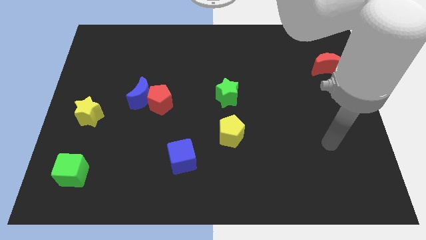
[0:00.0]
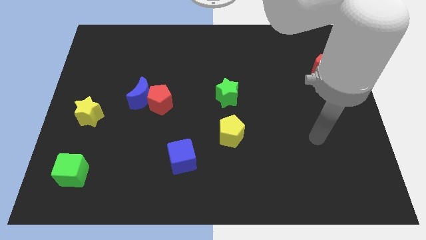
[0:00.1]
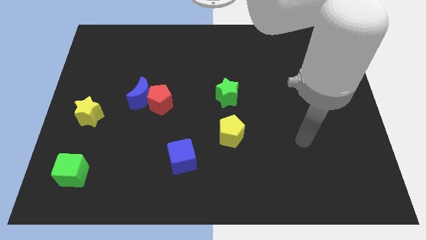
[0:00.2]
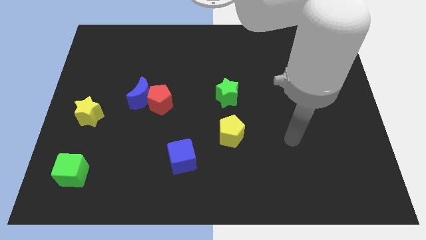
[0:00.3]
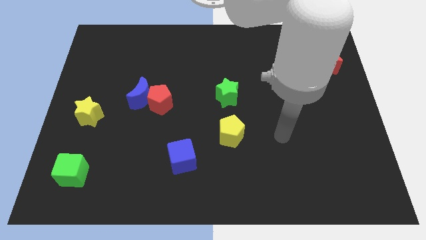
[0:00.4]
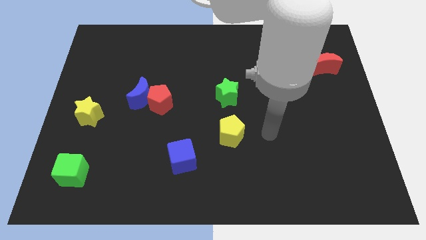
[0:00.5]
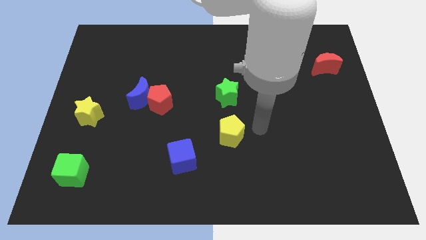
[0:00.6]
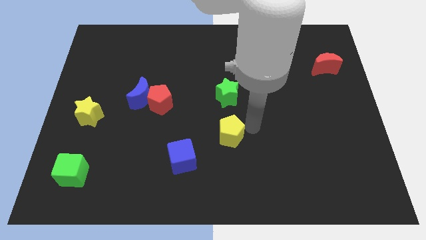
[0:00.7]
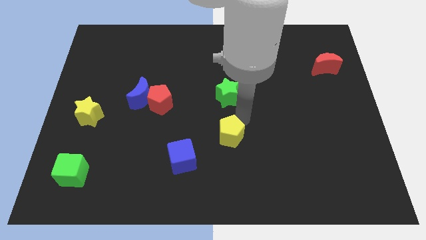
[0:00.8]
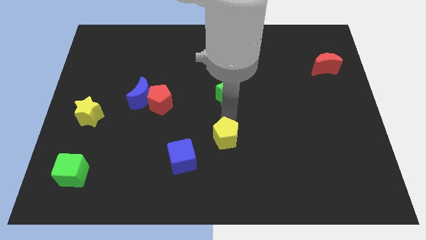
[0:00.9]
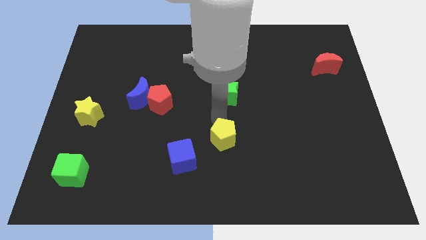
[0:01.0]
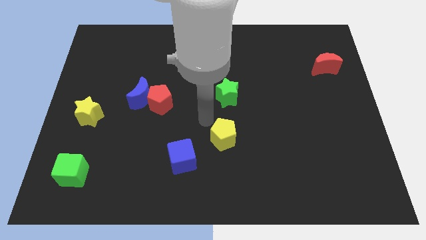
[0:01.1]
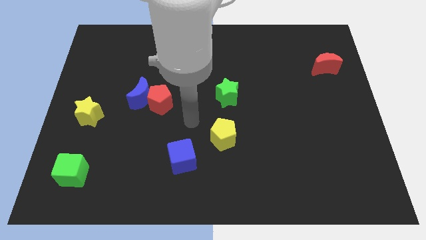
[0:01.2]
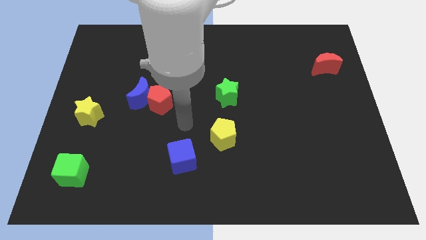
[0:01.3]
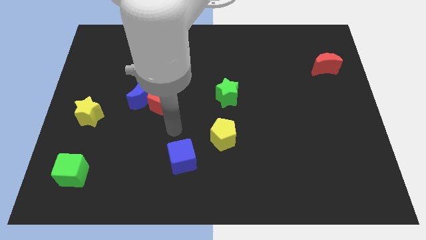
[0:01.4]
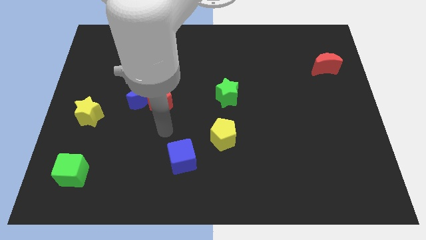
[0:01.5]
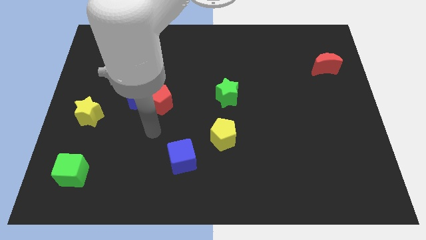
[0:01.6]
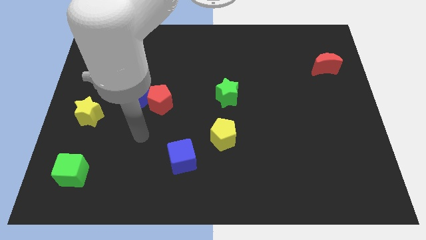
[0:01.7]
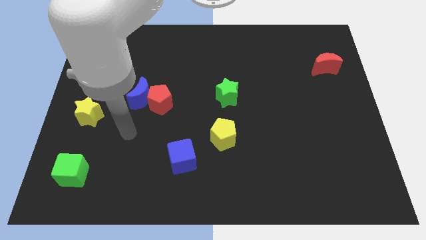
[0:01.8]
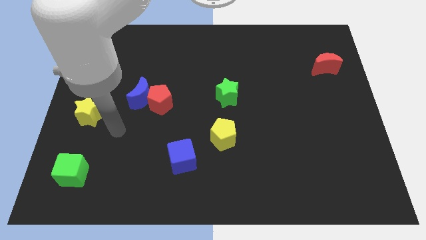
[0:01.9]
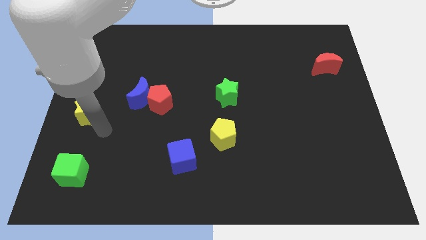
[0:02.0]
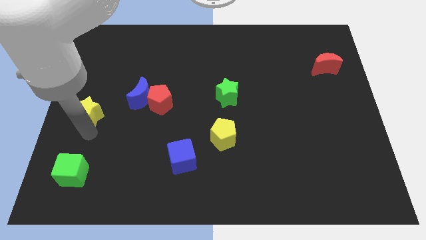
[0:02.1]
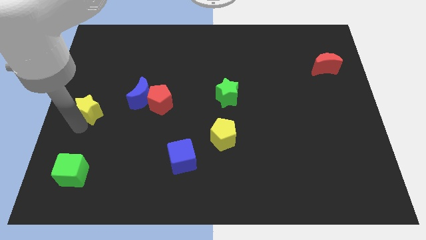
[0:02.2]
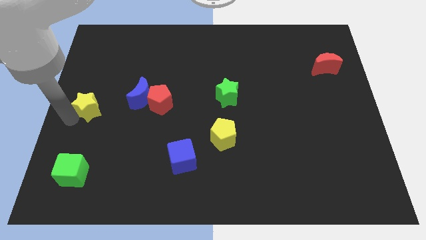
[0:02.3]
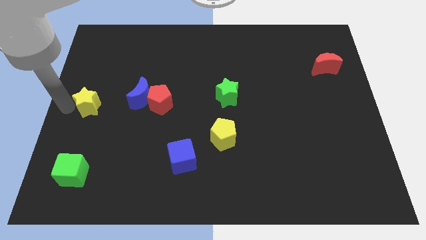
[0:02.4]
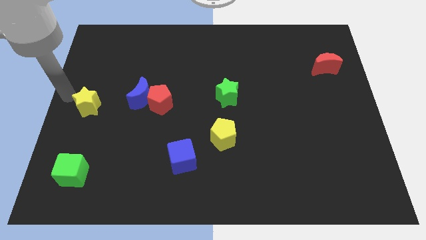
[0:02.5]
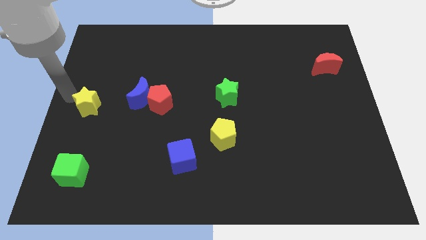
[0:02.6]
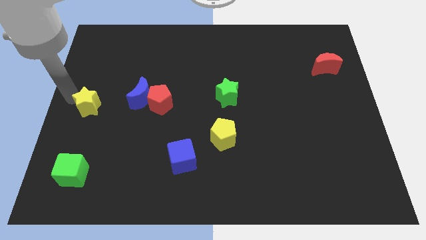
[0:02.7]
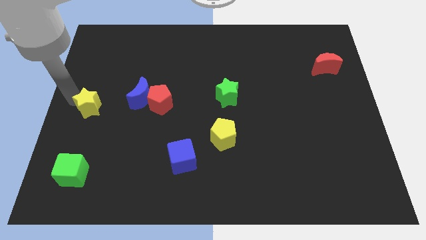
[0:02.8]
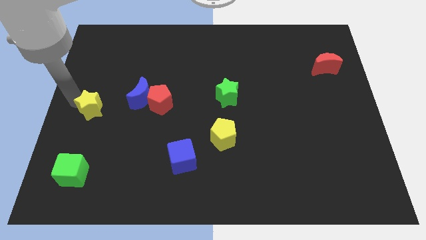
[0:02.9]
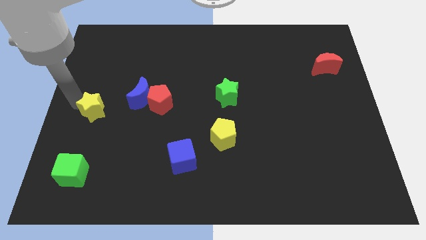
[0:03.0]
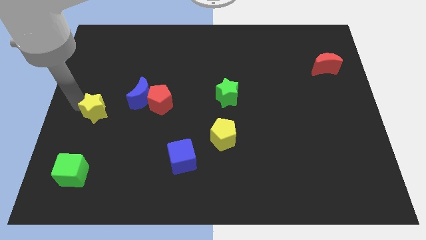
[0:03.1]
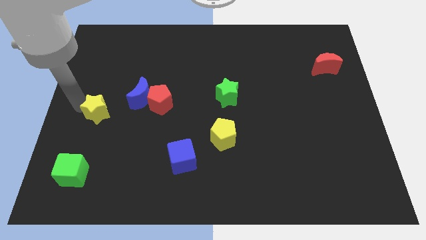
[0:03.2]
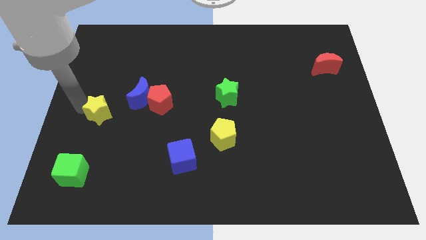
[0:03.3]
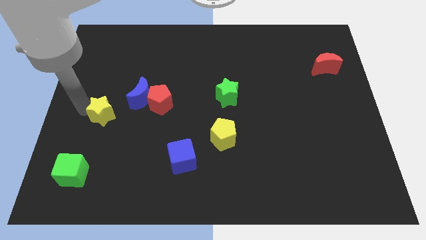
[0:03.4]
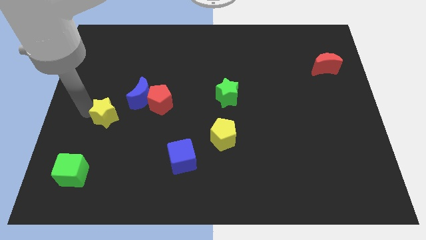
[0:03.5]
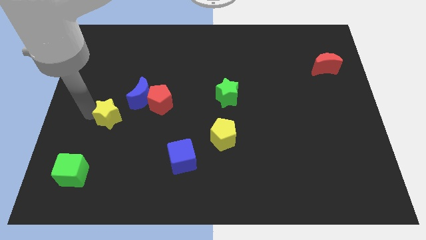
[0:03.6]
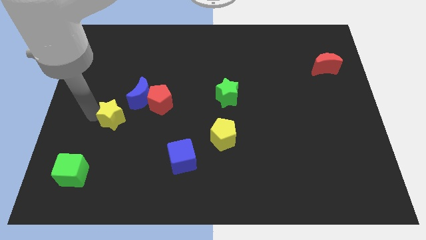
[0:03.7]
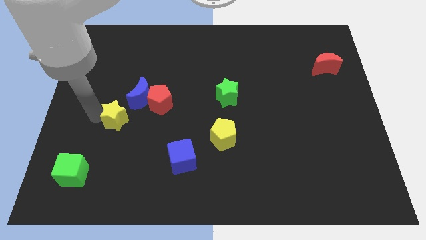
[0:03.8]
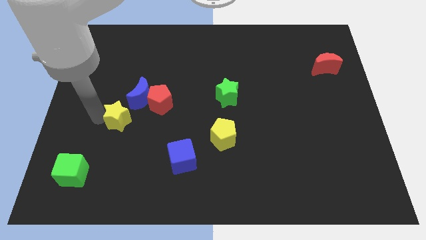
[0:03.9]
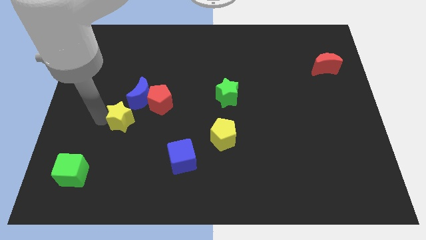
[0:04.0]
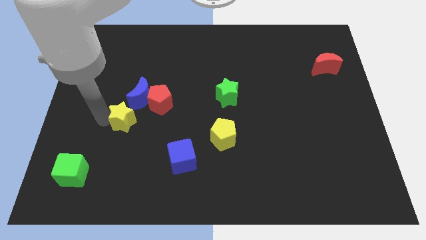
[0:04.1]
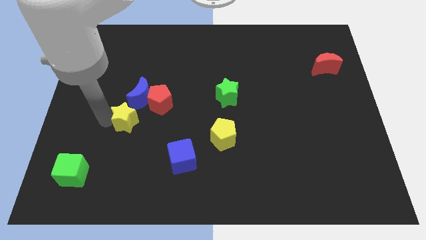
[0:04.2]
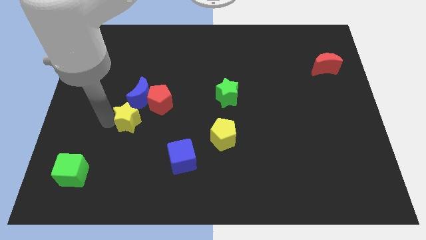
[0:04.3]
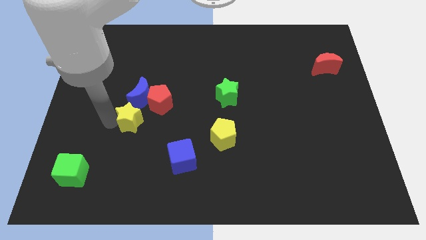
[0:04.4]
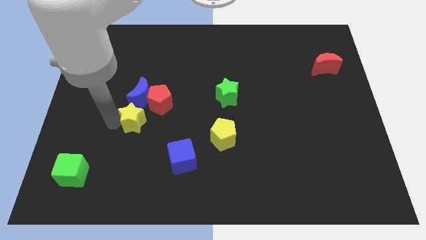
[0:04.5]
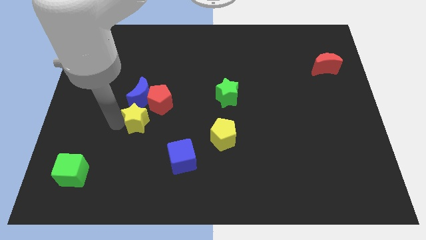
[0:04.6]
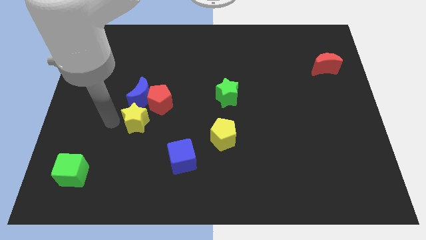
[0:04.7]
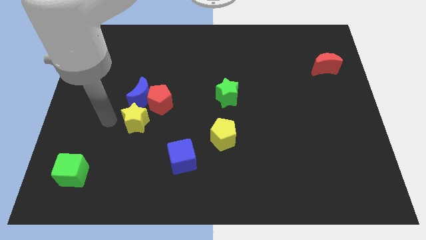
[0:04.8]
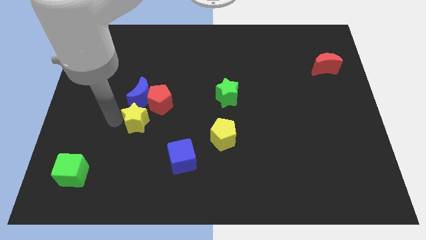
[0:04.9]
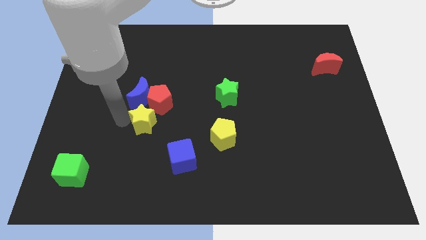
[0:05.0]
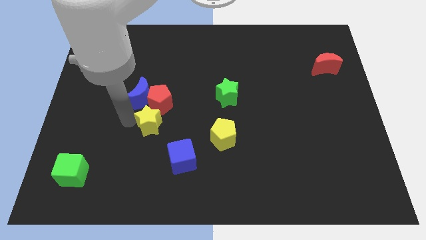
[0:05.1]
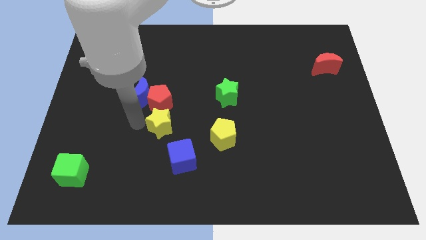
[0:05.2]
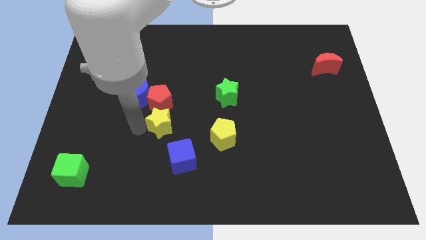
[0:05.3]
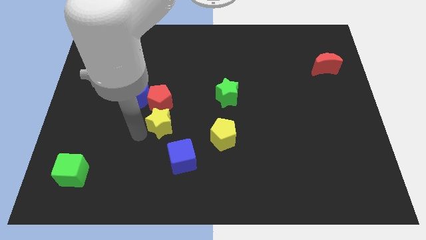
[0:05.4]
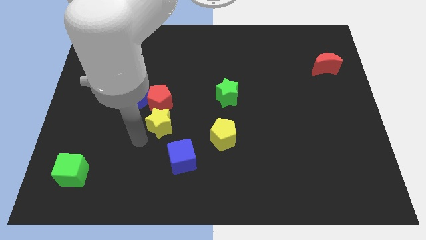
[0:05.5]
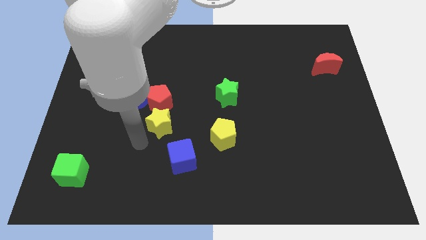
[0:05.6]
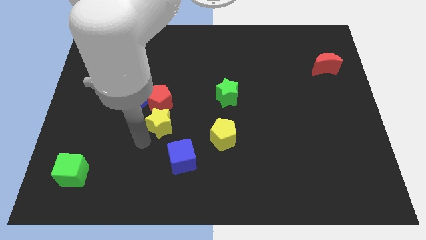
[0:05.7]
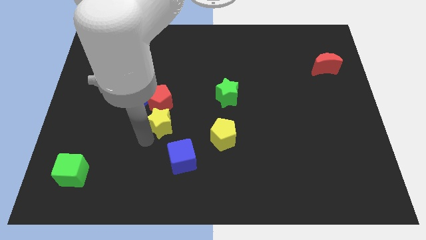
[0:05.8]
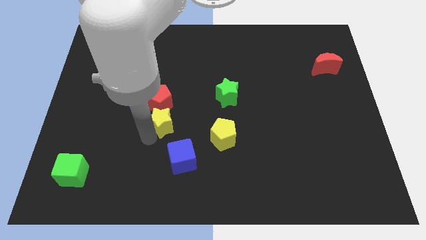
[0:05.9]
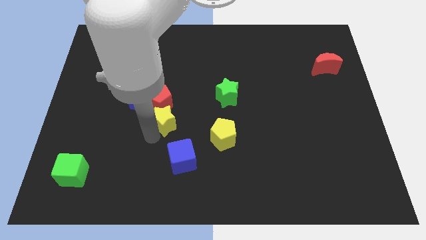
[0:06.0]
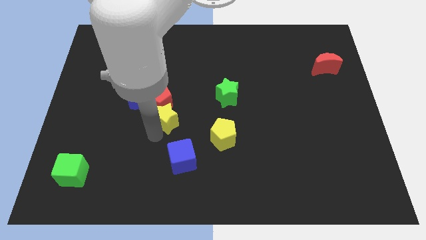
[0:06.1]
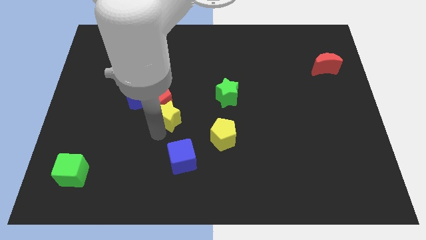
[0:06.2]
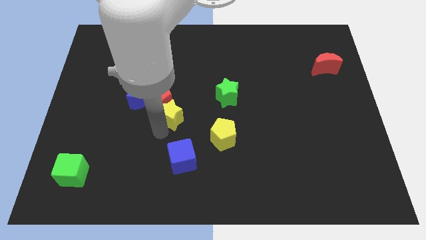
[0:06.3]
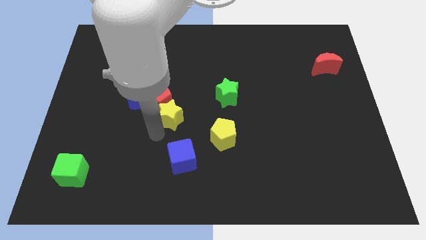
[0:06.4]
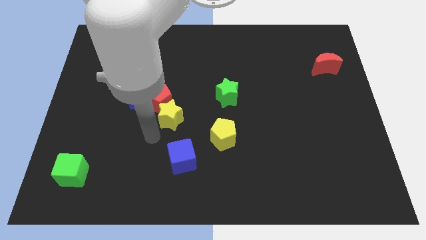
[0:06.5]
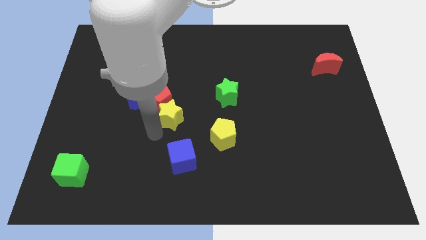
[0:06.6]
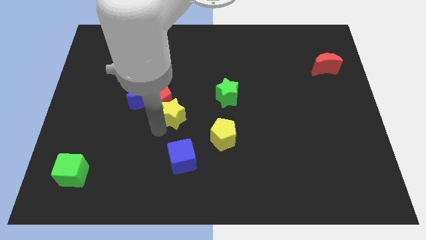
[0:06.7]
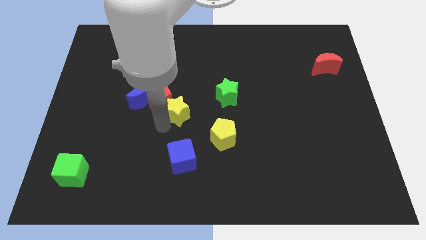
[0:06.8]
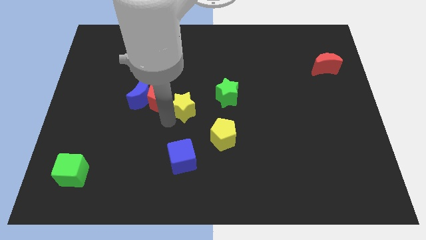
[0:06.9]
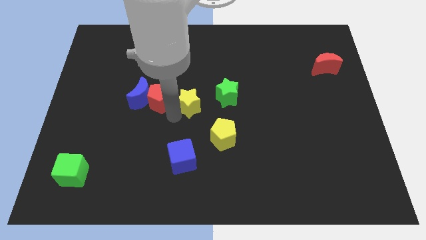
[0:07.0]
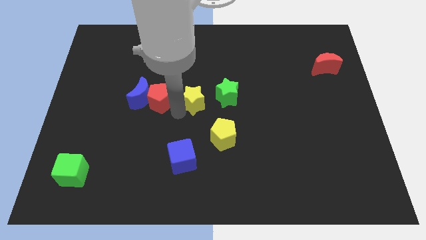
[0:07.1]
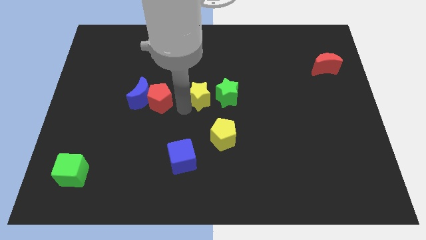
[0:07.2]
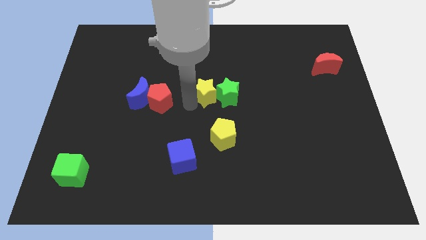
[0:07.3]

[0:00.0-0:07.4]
move the yellow star above the yellow pentagon
